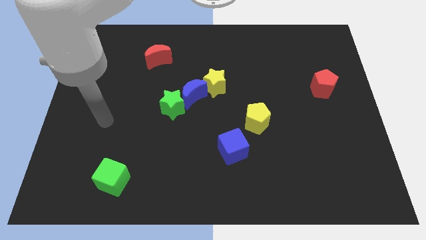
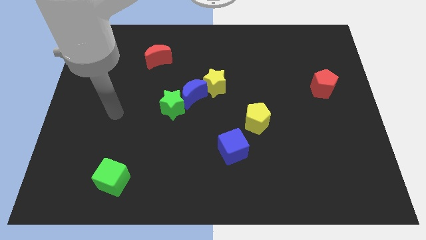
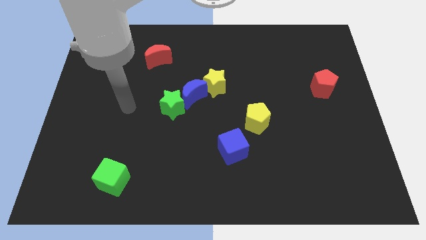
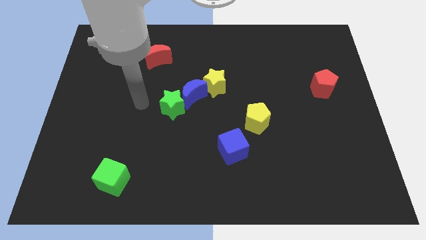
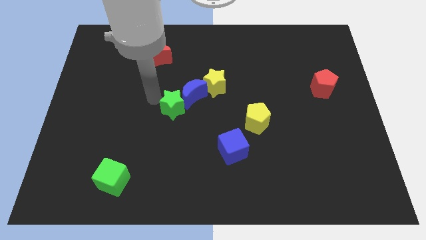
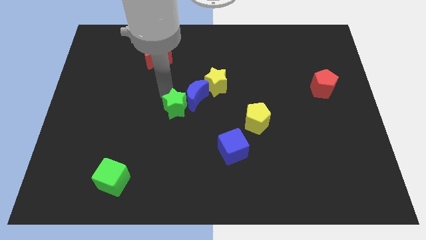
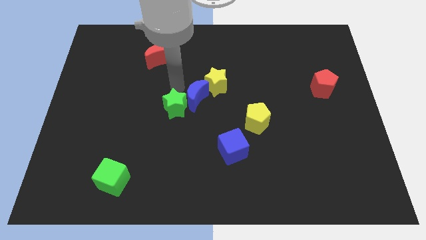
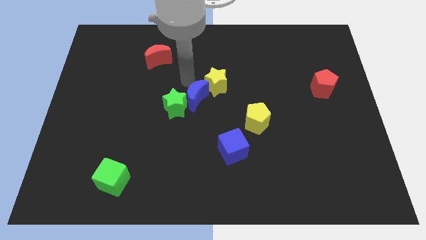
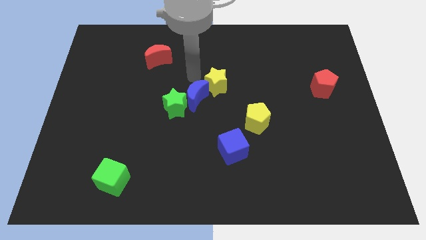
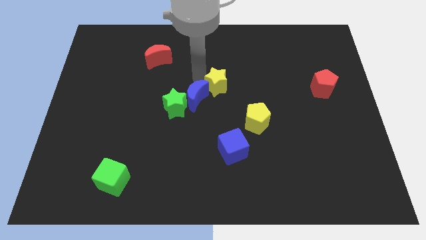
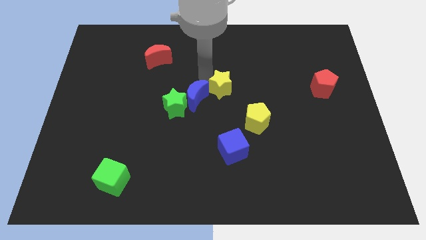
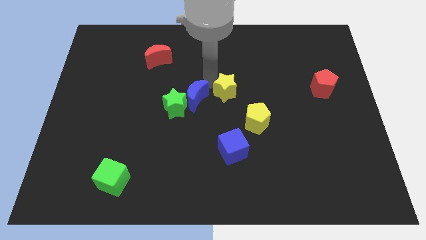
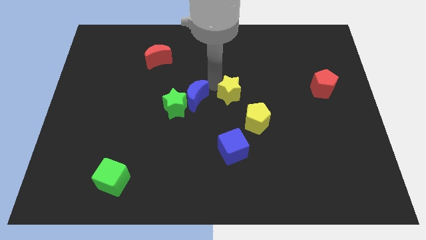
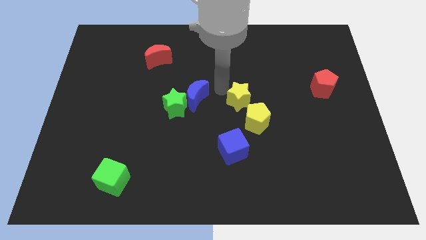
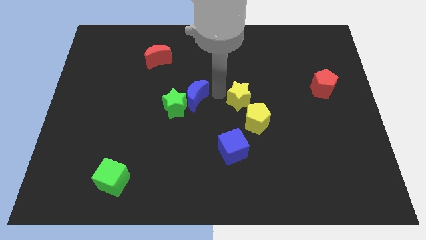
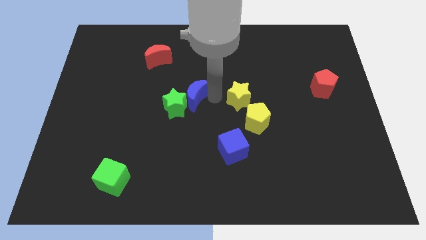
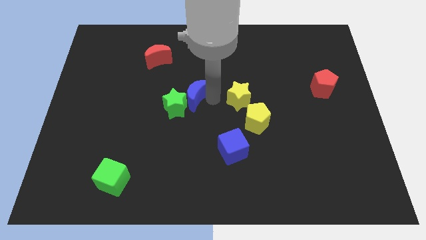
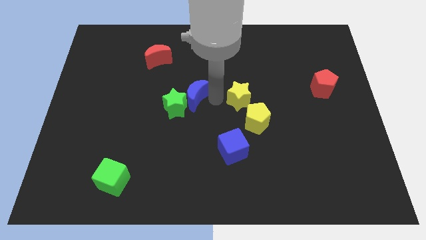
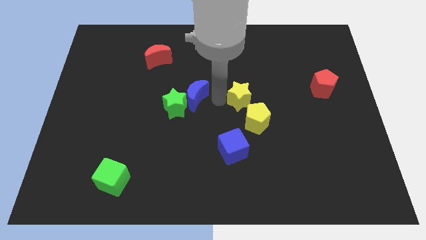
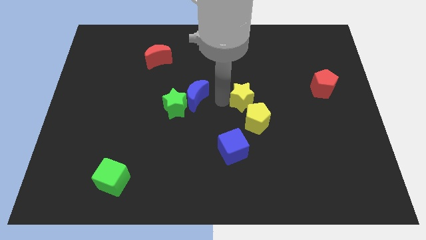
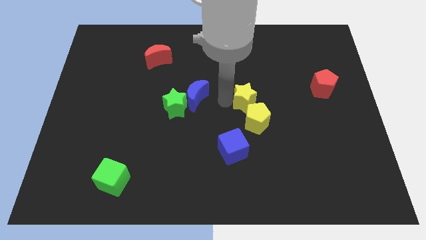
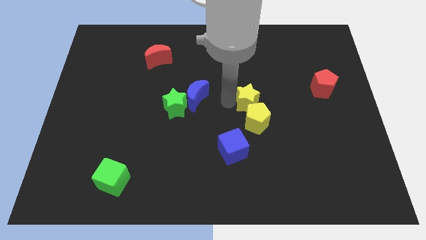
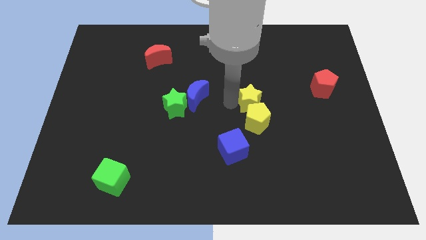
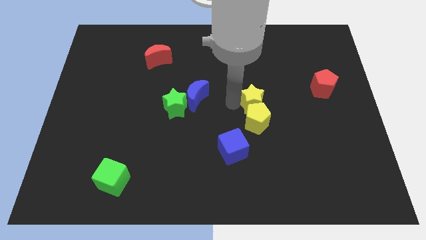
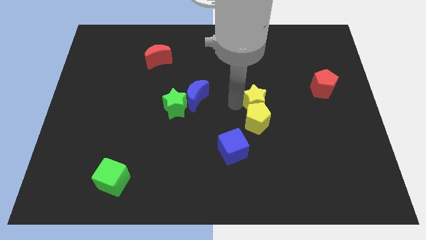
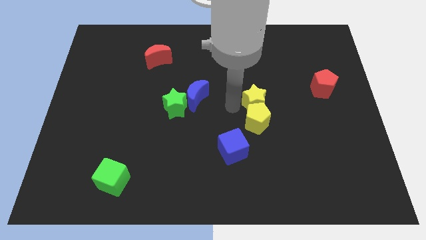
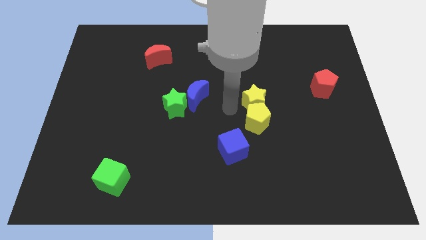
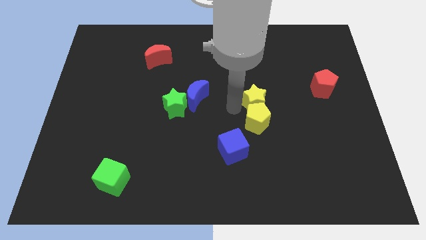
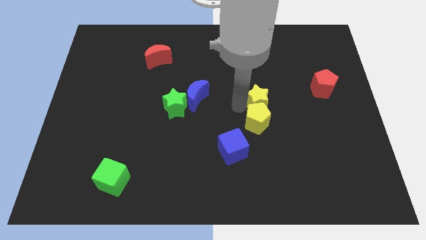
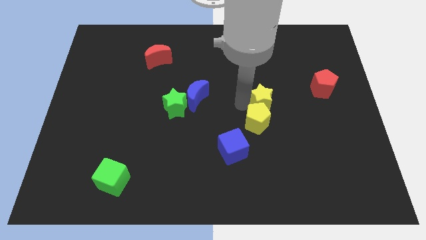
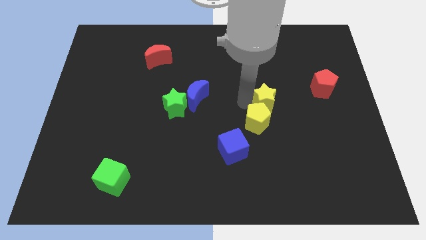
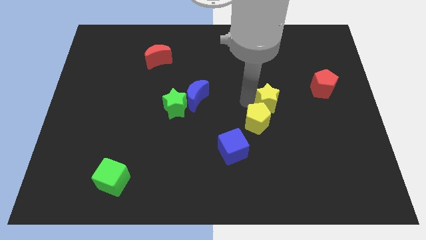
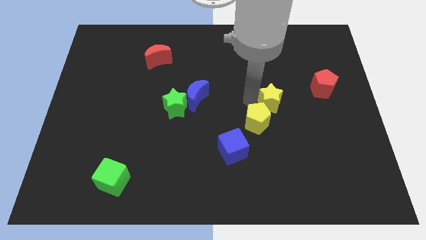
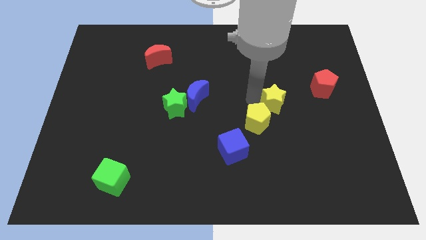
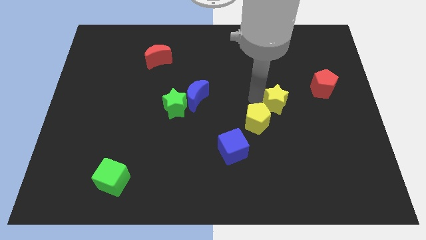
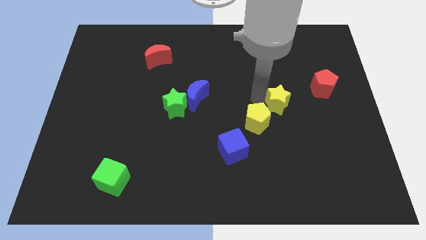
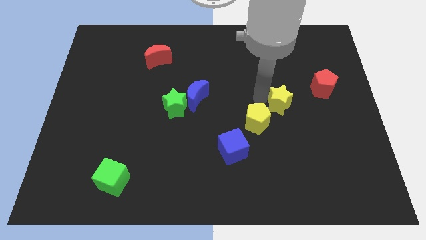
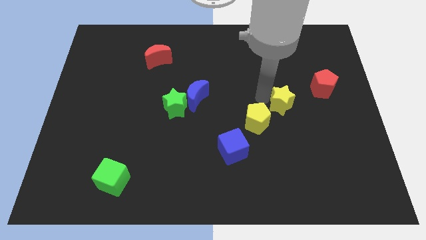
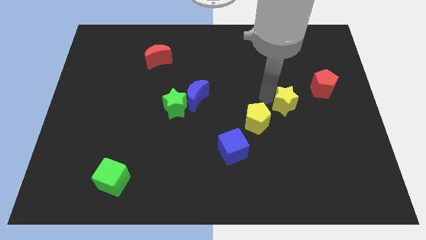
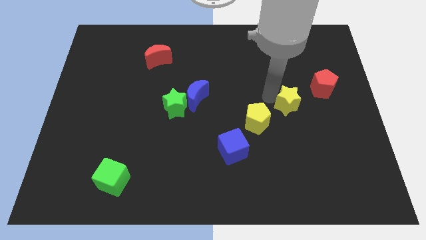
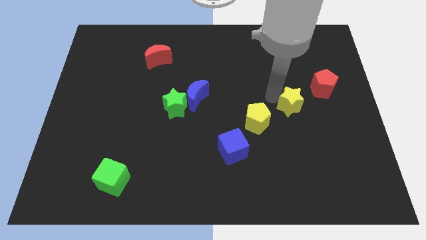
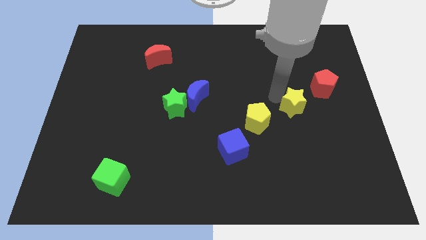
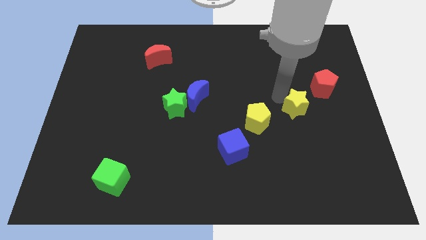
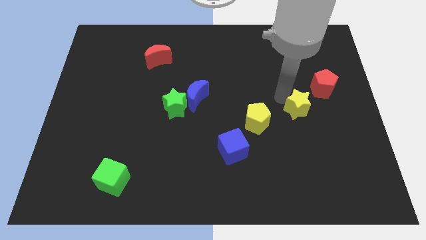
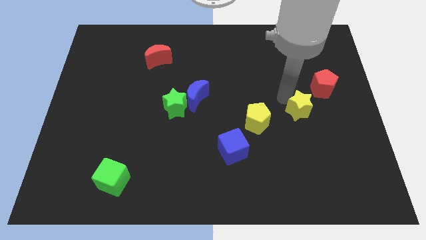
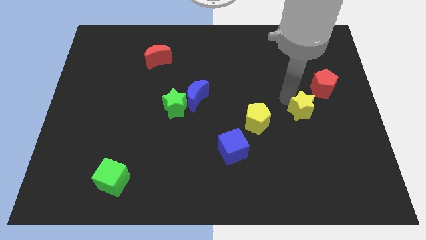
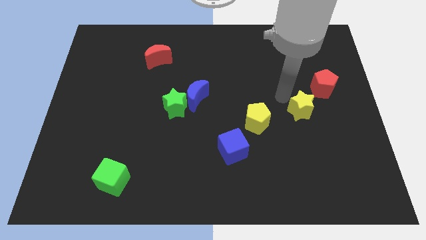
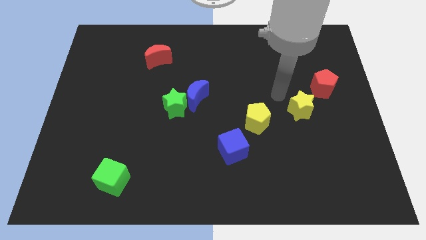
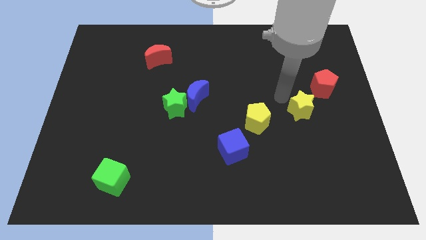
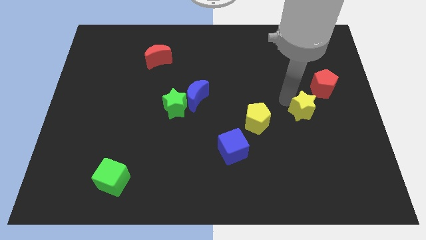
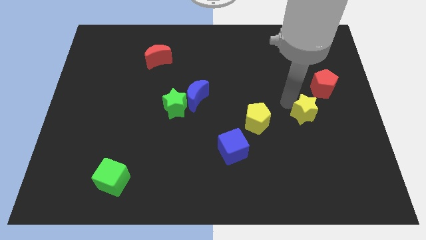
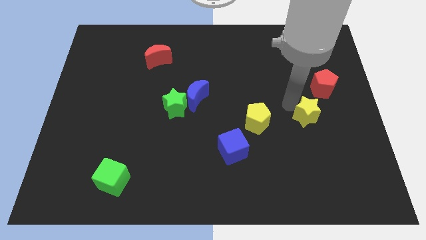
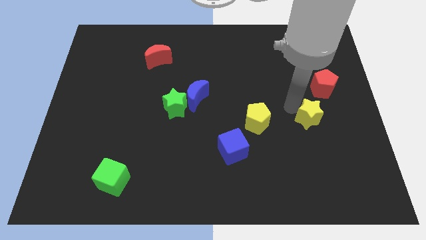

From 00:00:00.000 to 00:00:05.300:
move the yellow star to the bottom side of the red pentagon

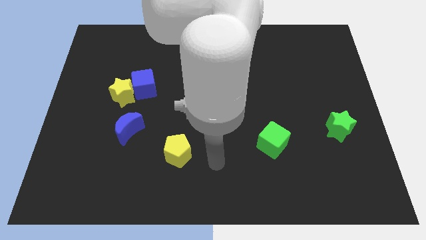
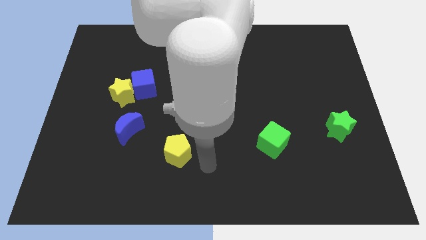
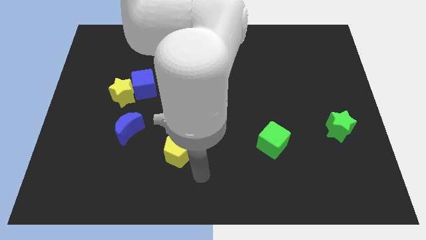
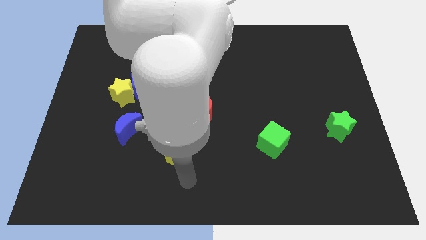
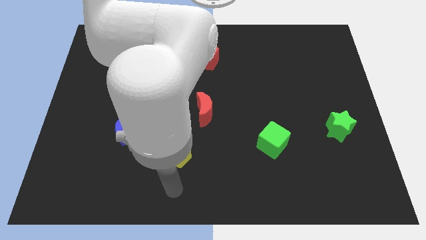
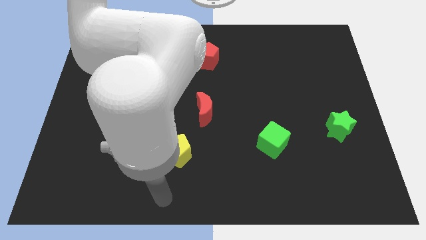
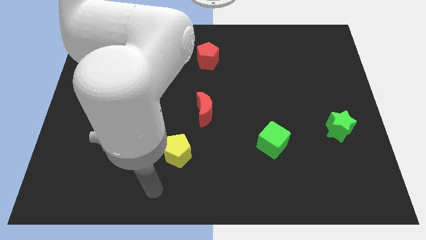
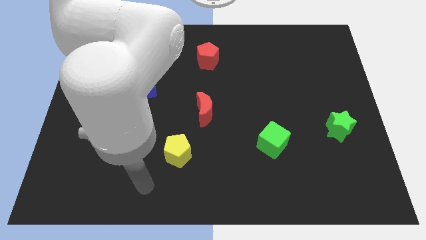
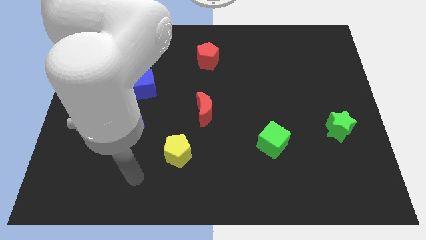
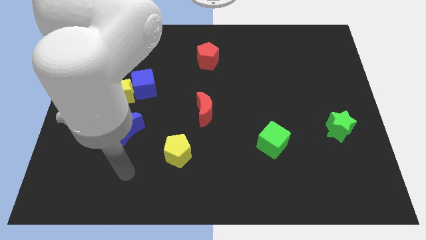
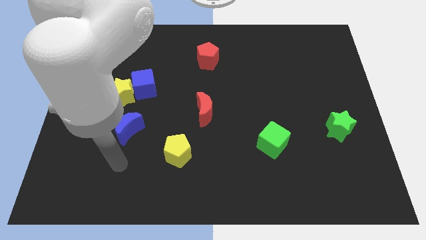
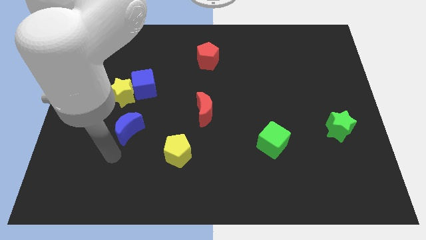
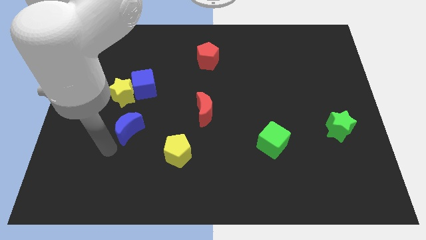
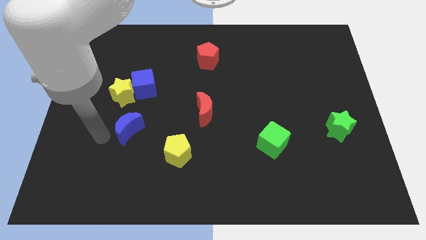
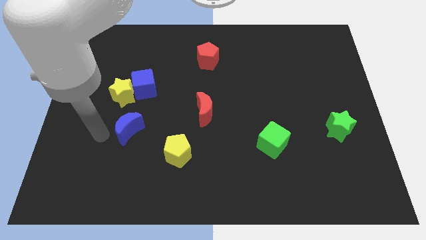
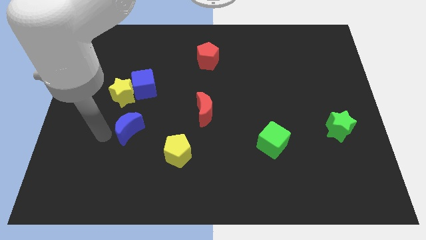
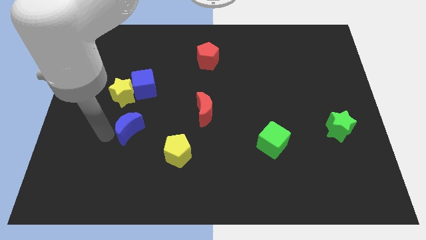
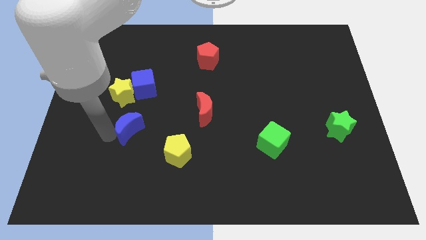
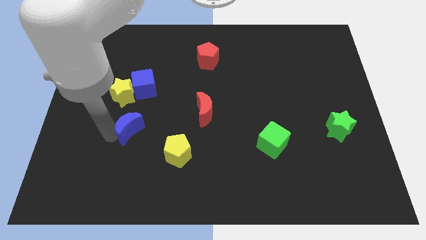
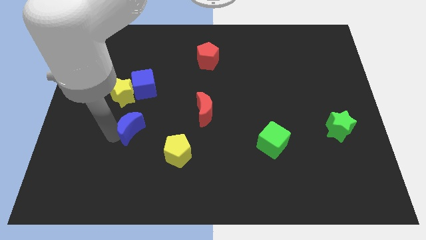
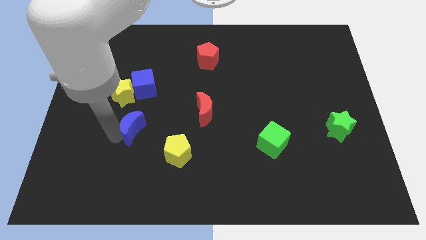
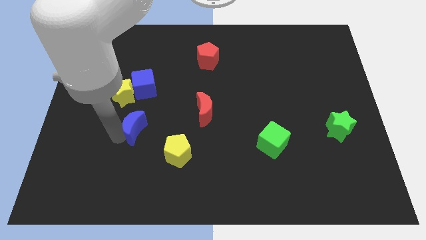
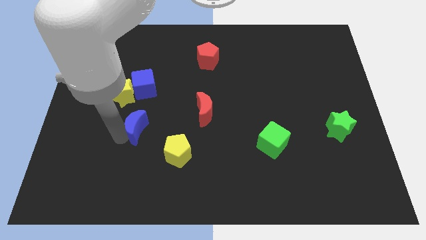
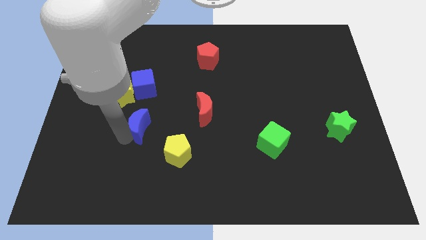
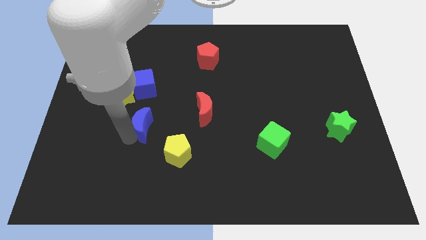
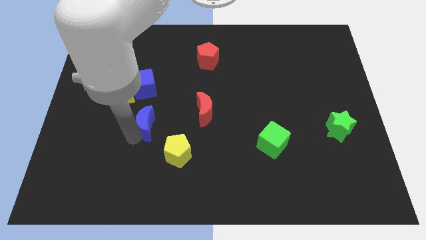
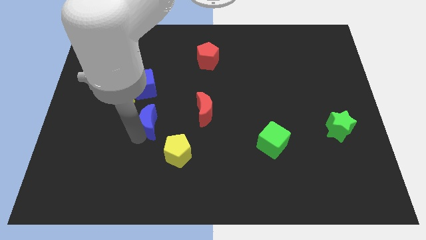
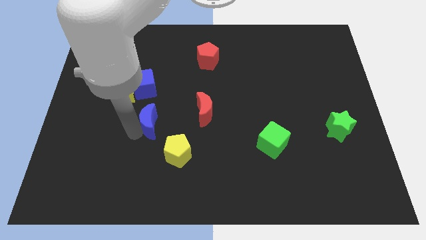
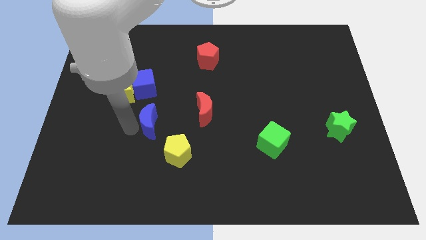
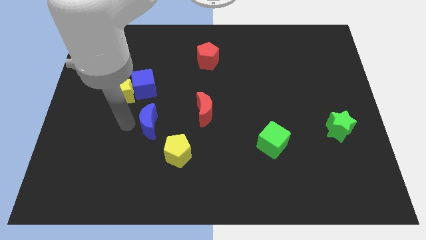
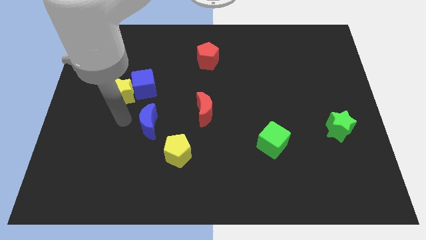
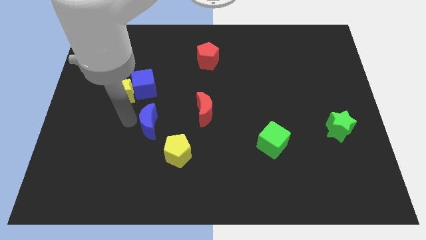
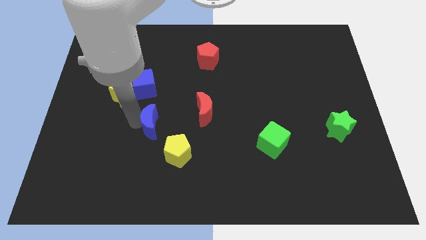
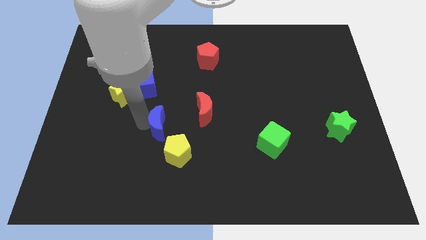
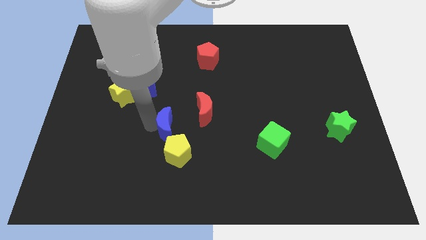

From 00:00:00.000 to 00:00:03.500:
slide the blue moon to the bottom left side of the red moon
